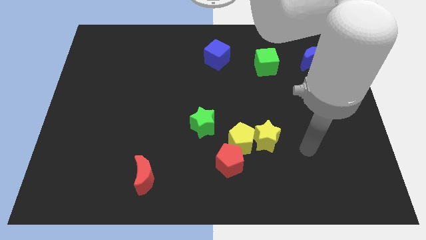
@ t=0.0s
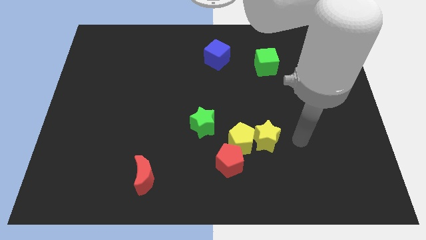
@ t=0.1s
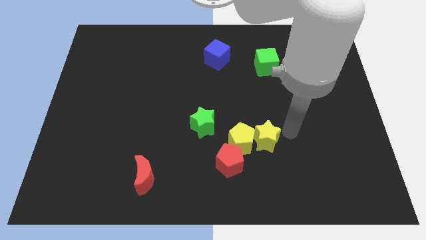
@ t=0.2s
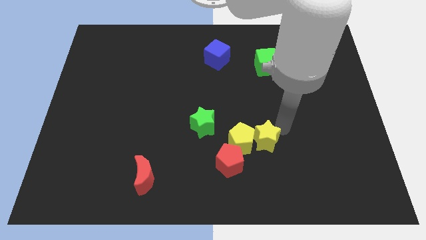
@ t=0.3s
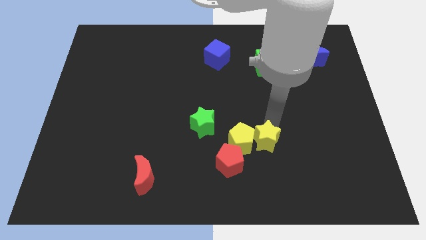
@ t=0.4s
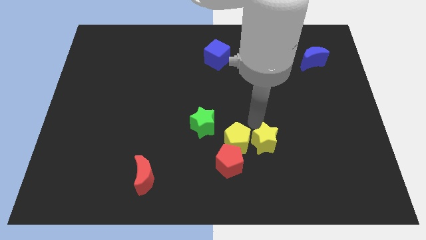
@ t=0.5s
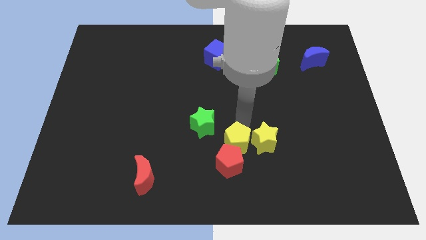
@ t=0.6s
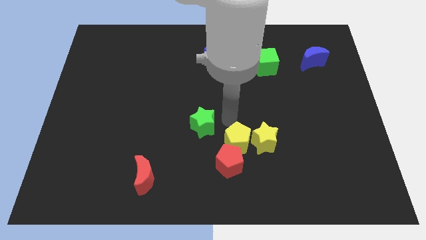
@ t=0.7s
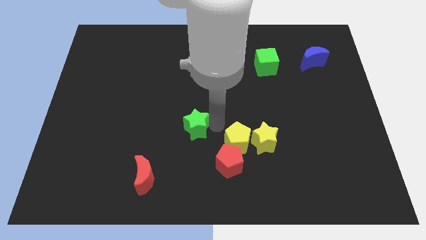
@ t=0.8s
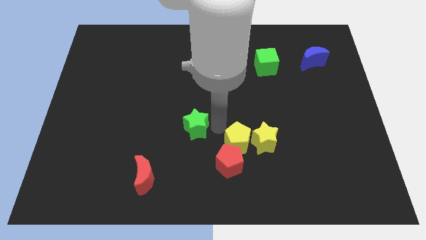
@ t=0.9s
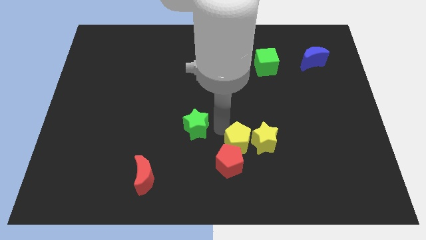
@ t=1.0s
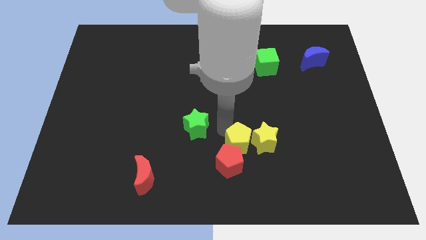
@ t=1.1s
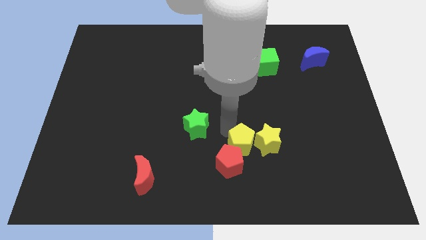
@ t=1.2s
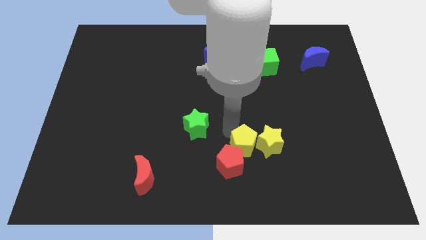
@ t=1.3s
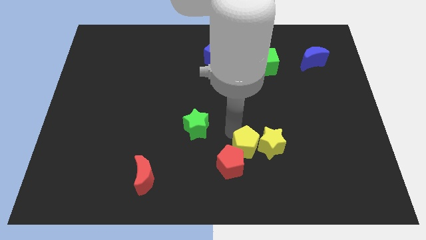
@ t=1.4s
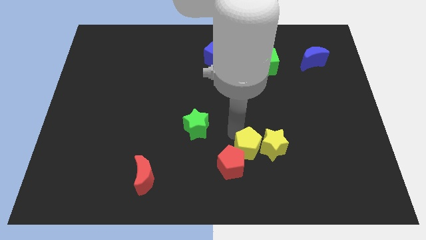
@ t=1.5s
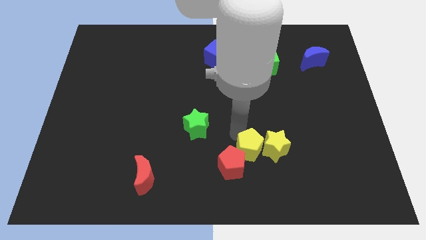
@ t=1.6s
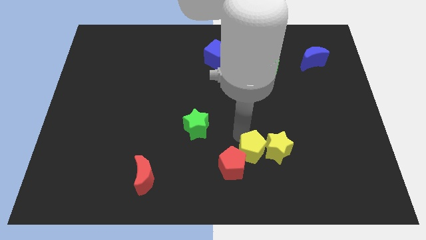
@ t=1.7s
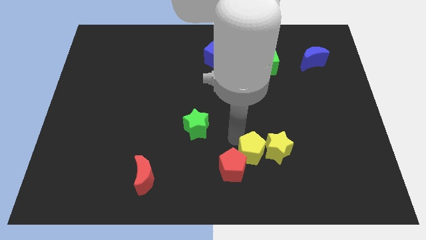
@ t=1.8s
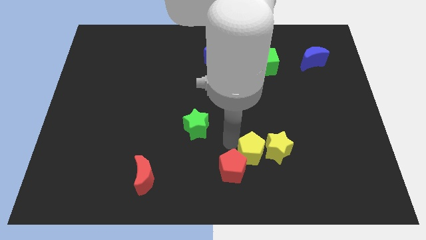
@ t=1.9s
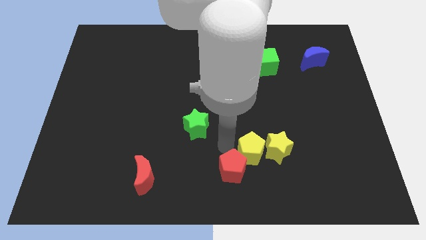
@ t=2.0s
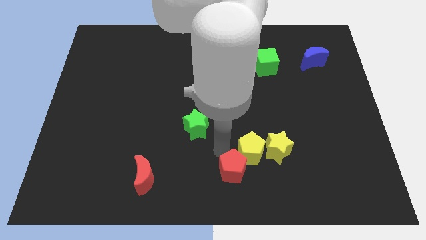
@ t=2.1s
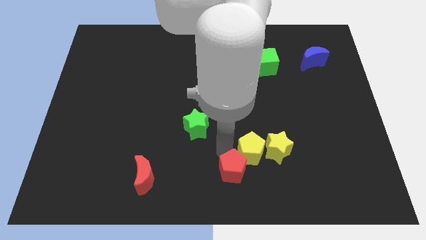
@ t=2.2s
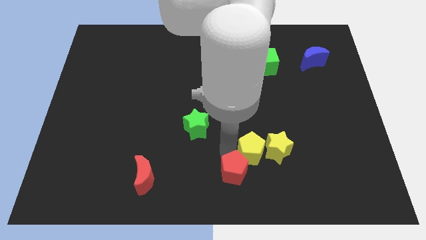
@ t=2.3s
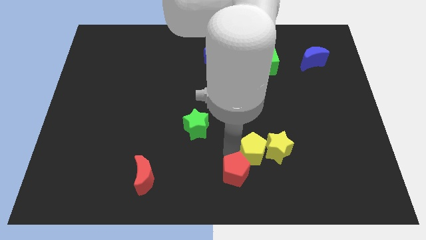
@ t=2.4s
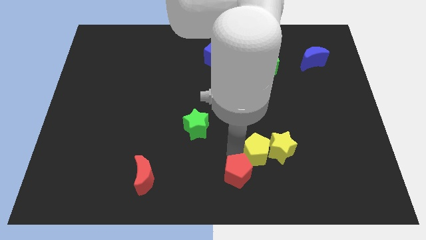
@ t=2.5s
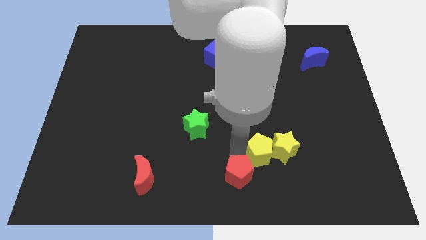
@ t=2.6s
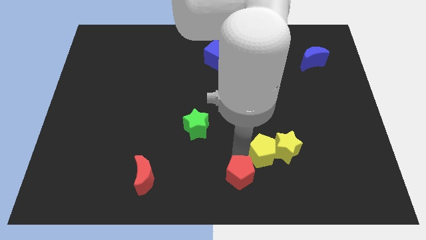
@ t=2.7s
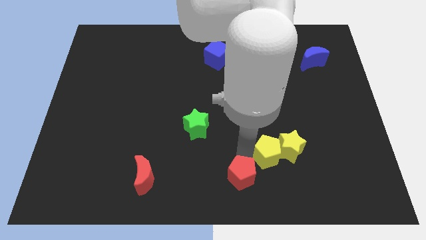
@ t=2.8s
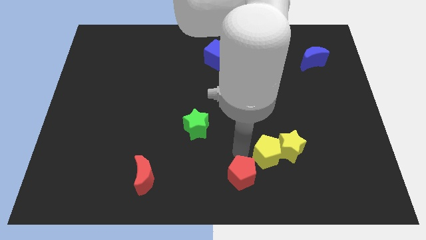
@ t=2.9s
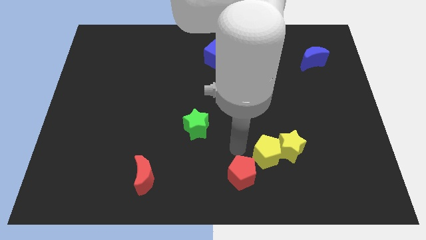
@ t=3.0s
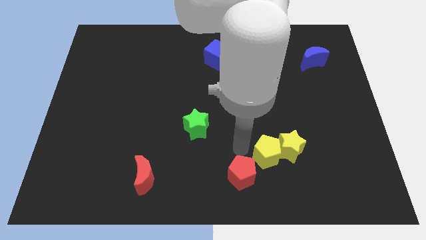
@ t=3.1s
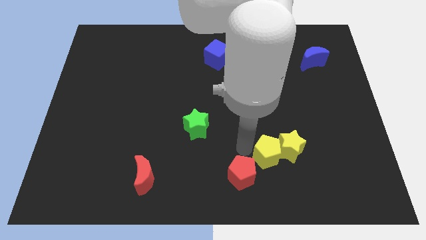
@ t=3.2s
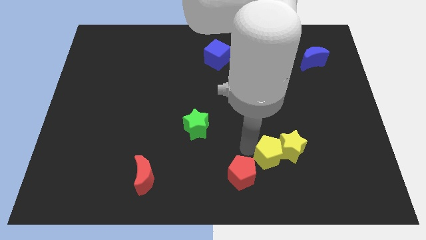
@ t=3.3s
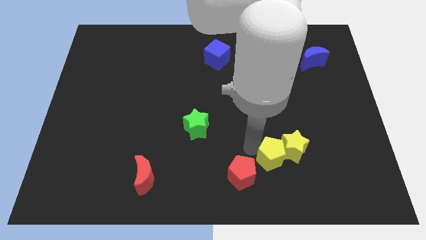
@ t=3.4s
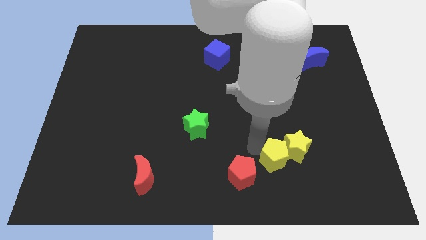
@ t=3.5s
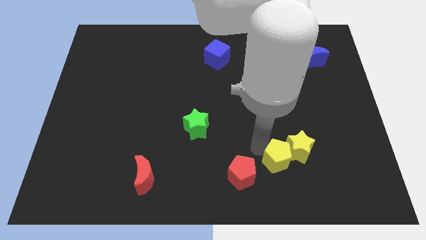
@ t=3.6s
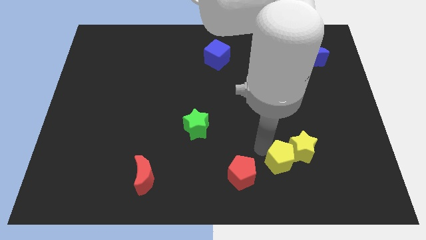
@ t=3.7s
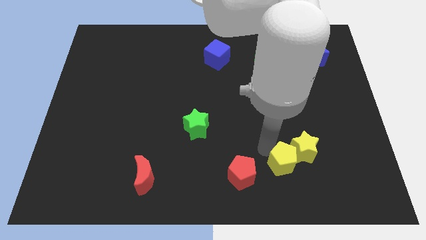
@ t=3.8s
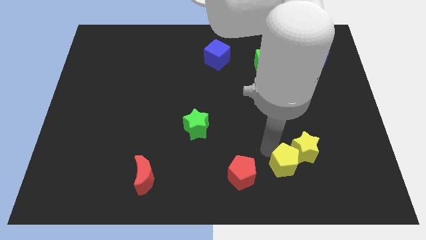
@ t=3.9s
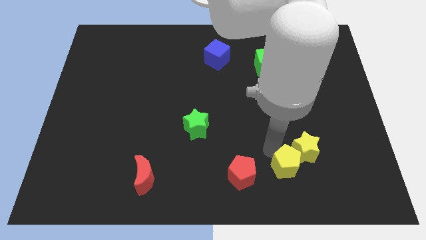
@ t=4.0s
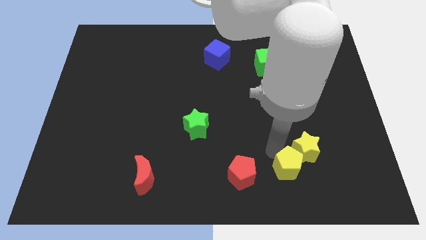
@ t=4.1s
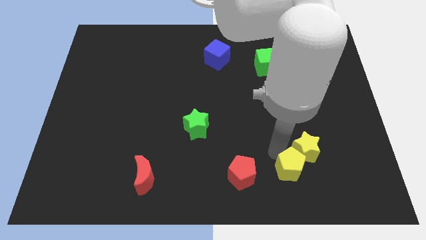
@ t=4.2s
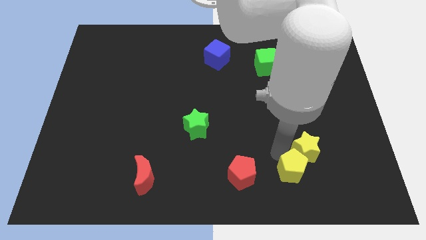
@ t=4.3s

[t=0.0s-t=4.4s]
move the yellow pentagon away from the yellow star, red pentagon, and green star

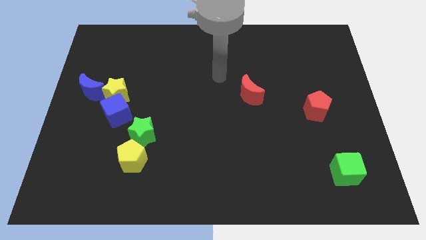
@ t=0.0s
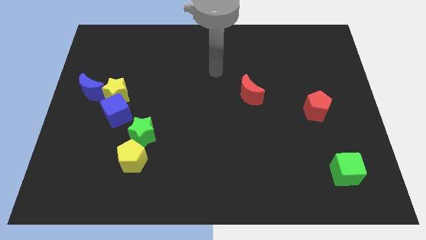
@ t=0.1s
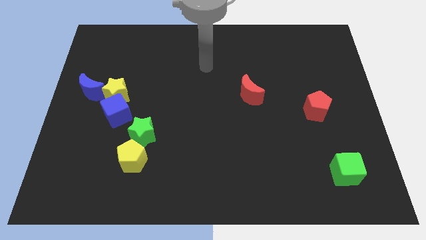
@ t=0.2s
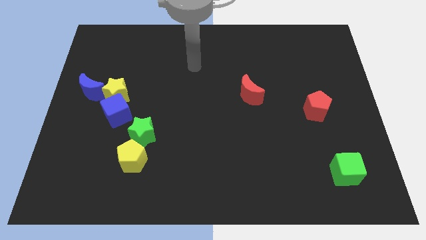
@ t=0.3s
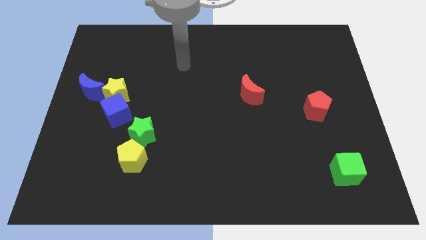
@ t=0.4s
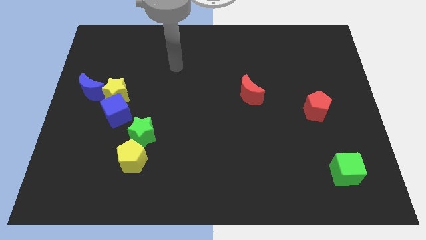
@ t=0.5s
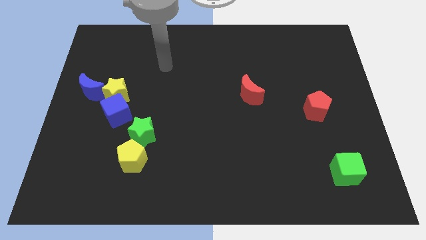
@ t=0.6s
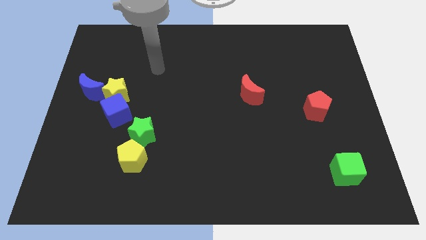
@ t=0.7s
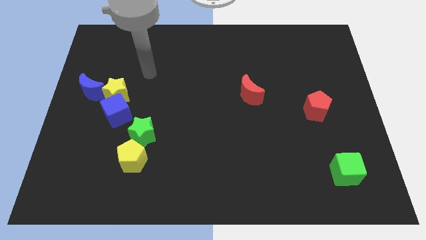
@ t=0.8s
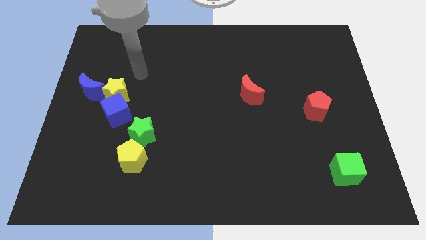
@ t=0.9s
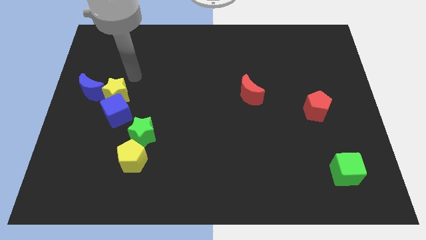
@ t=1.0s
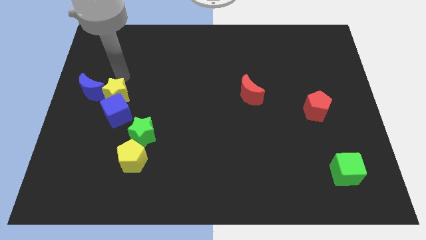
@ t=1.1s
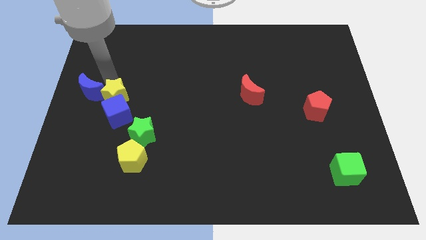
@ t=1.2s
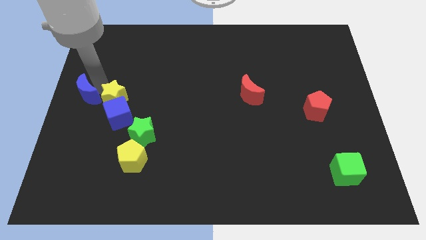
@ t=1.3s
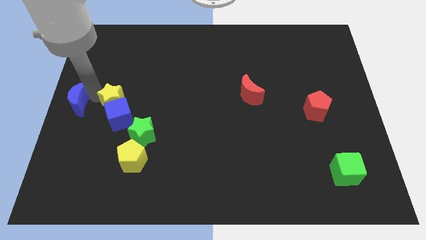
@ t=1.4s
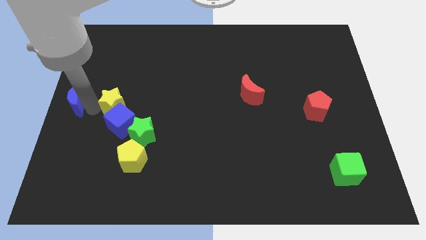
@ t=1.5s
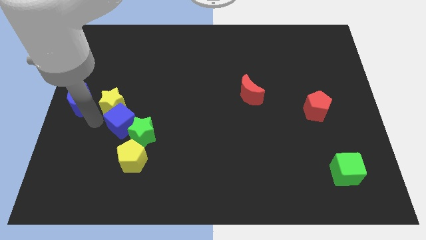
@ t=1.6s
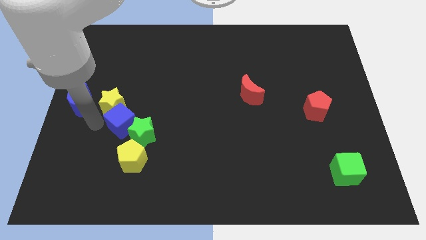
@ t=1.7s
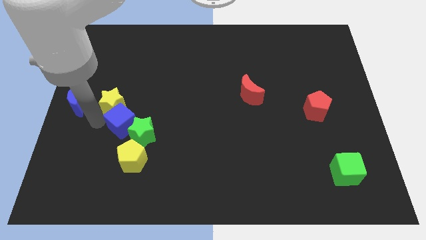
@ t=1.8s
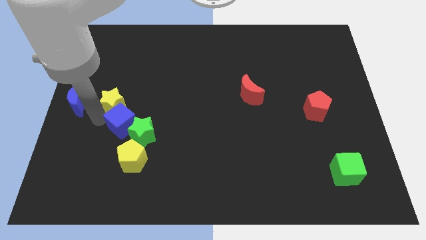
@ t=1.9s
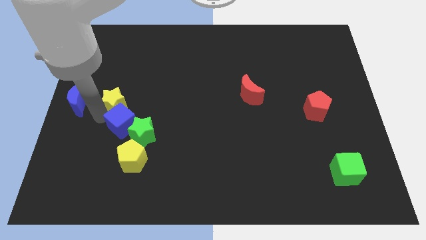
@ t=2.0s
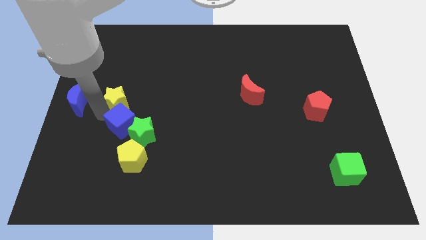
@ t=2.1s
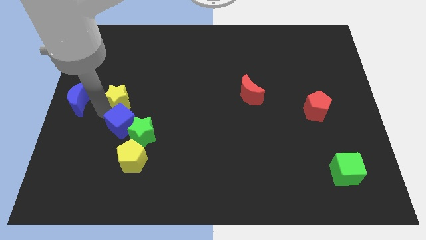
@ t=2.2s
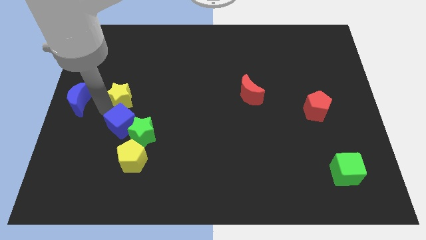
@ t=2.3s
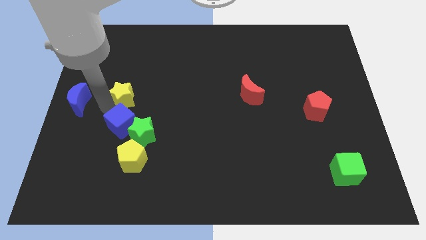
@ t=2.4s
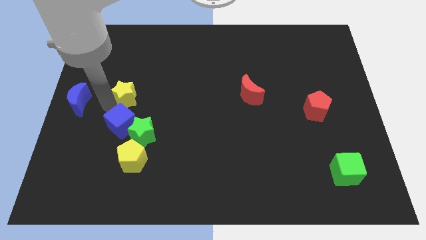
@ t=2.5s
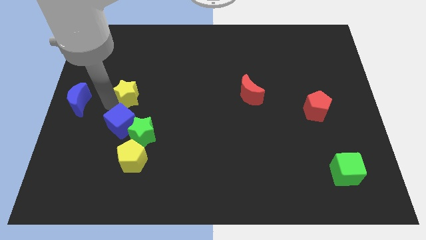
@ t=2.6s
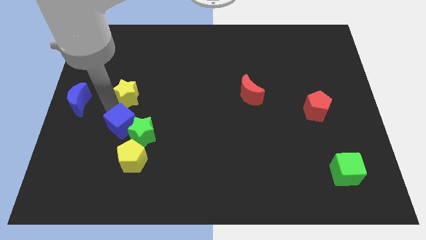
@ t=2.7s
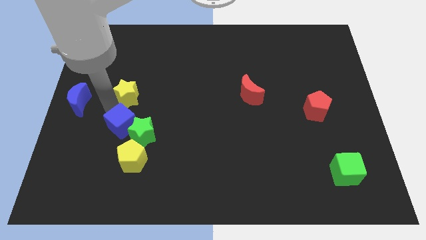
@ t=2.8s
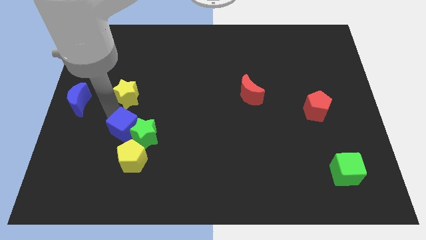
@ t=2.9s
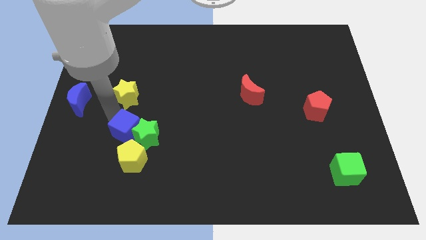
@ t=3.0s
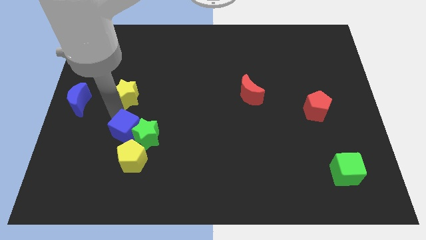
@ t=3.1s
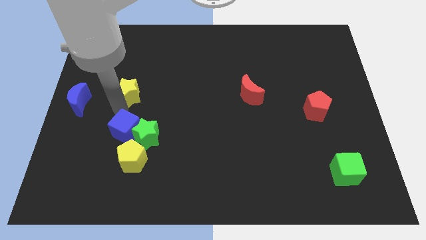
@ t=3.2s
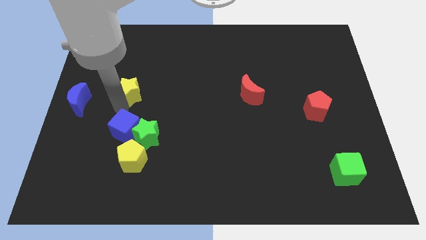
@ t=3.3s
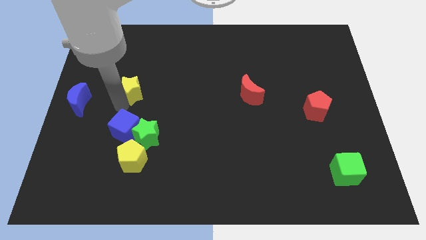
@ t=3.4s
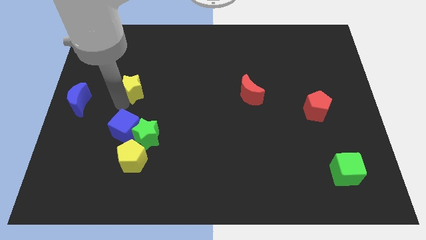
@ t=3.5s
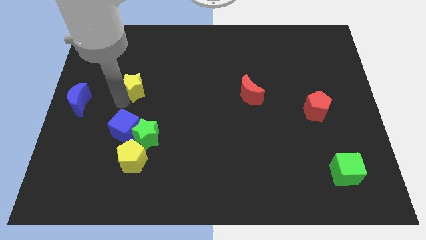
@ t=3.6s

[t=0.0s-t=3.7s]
move the yellow star away from the blue cube and blue moon

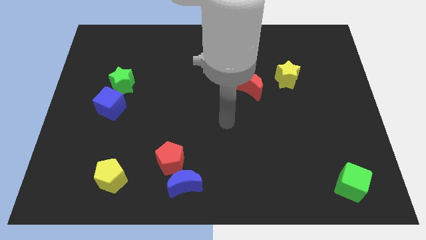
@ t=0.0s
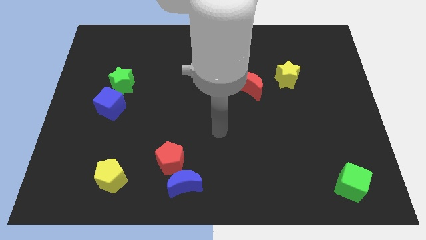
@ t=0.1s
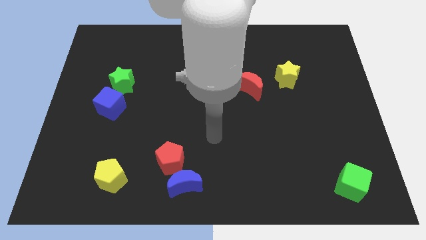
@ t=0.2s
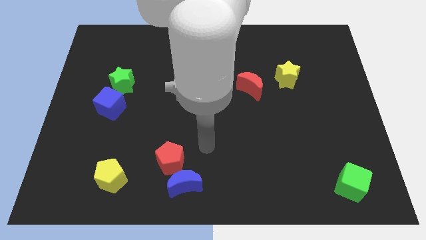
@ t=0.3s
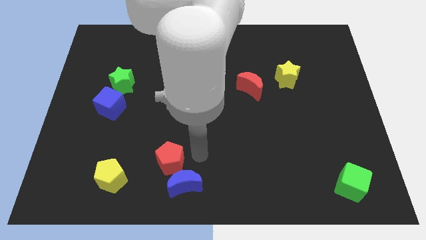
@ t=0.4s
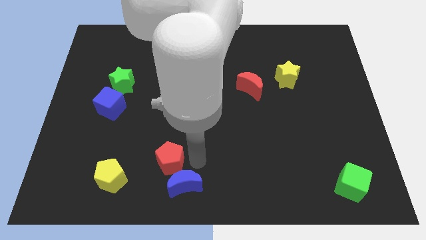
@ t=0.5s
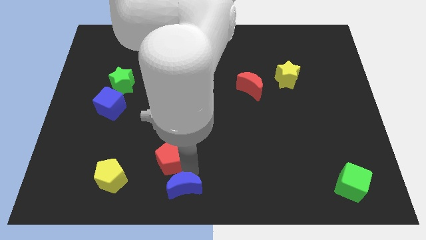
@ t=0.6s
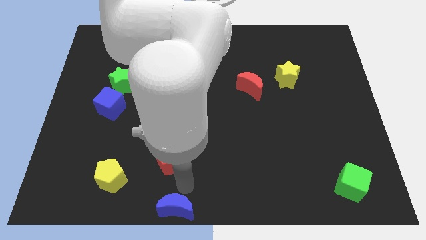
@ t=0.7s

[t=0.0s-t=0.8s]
separate the red pentagon from the blue moon

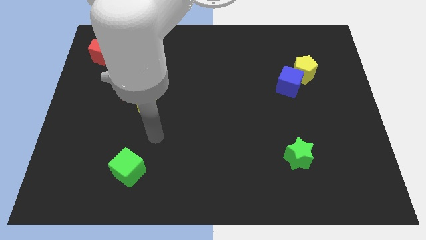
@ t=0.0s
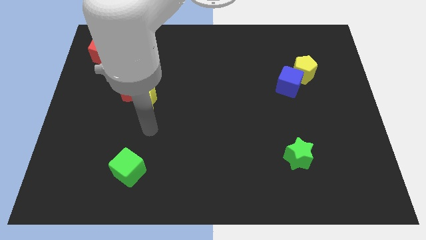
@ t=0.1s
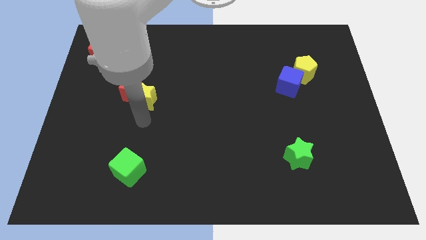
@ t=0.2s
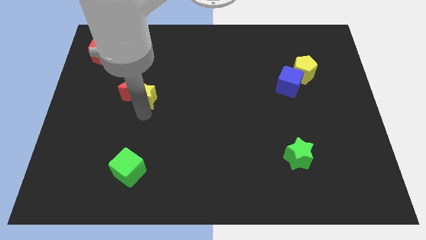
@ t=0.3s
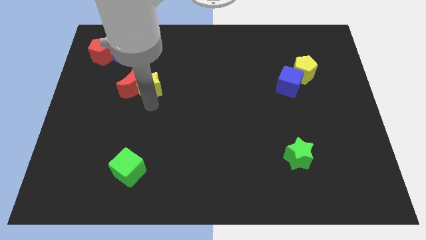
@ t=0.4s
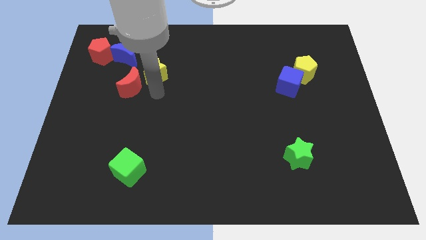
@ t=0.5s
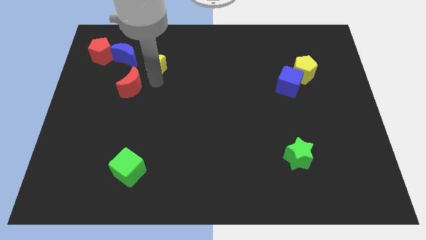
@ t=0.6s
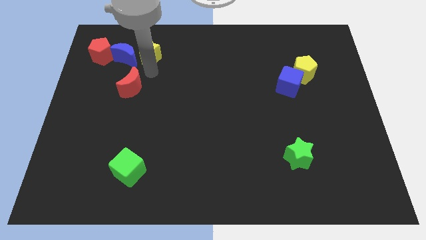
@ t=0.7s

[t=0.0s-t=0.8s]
pull the red moon apart from the yellow star
